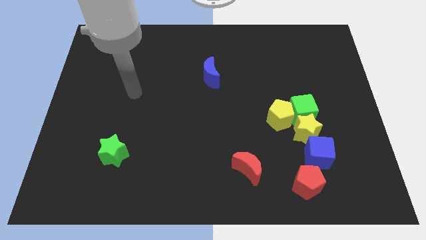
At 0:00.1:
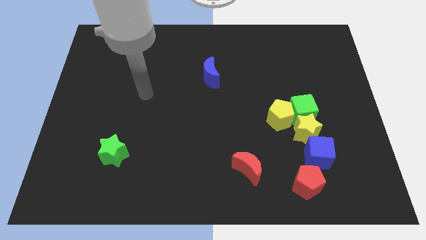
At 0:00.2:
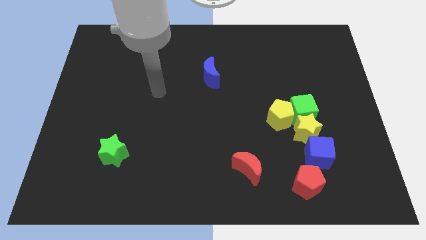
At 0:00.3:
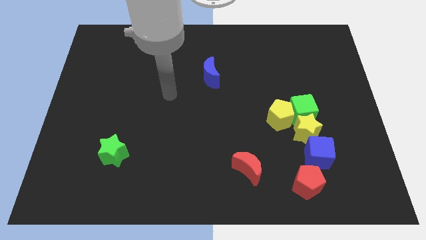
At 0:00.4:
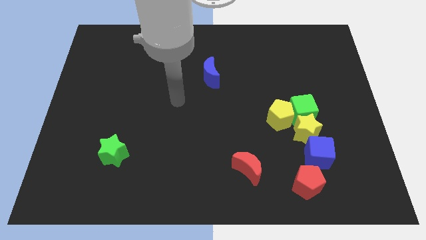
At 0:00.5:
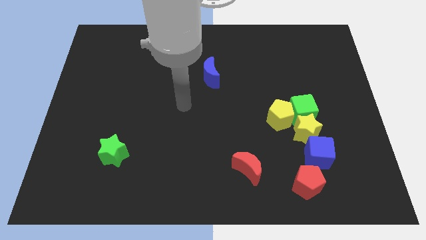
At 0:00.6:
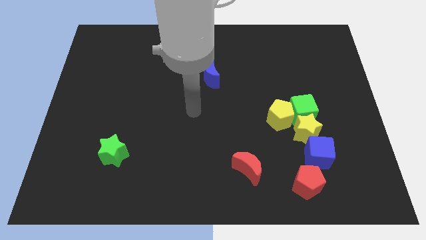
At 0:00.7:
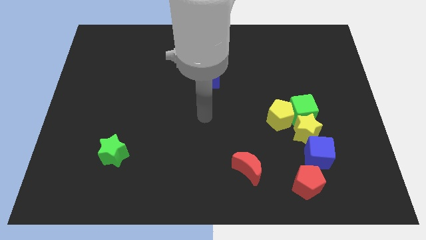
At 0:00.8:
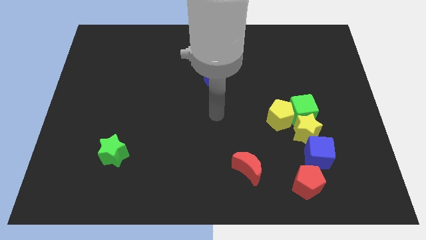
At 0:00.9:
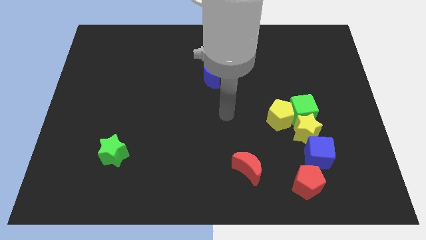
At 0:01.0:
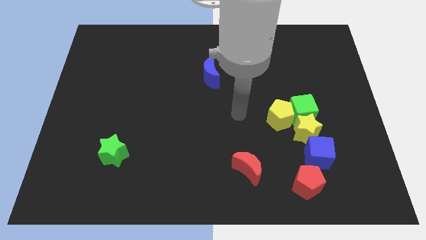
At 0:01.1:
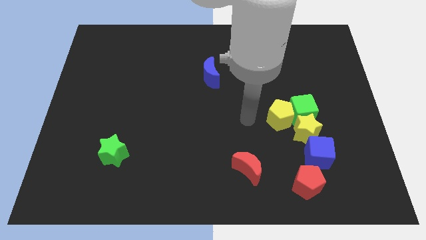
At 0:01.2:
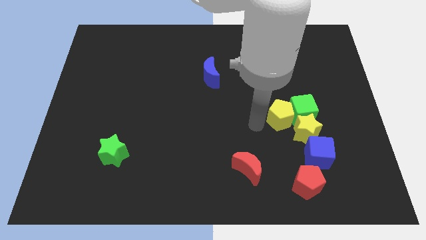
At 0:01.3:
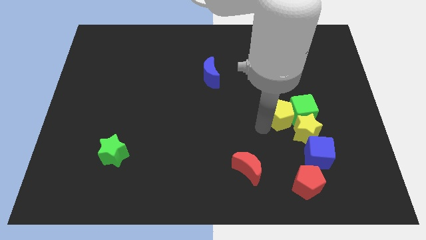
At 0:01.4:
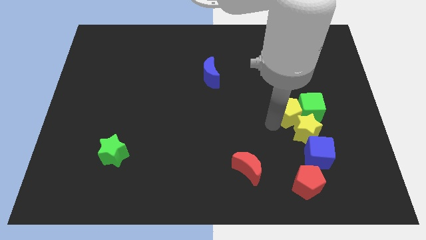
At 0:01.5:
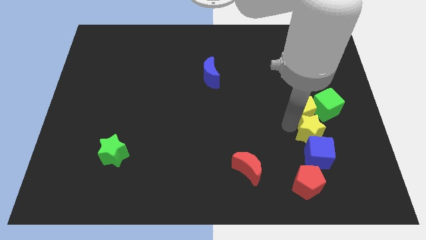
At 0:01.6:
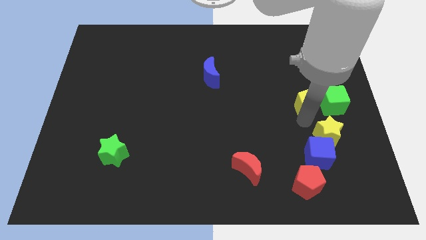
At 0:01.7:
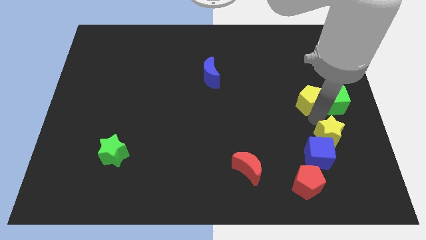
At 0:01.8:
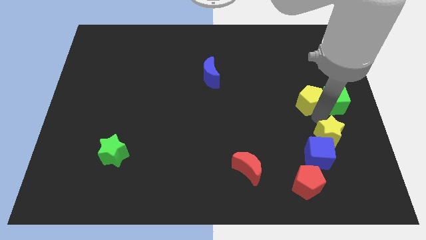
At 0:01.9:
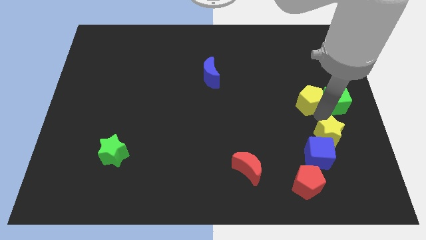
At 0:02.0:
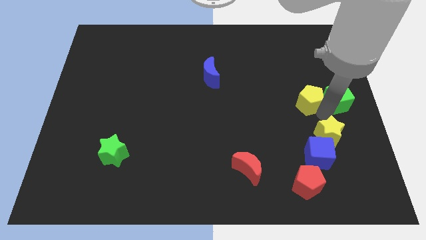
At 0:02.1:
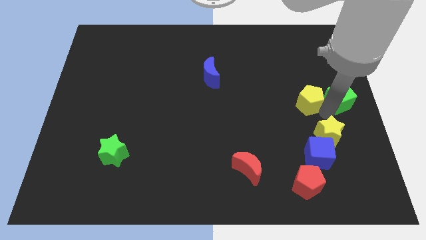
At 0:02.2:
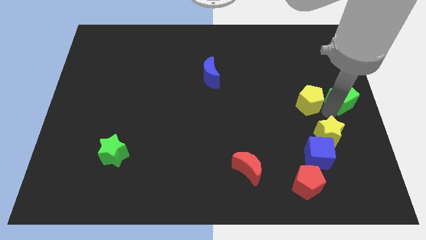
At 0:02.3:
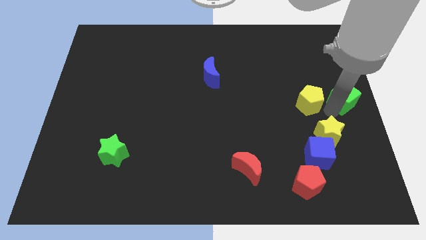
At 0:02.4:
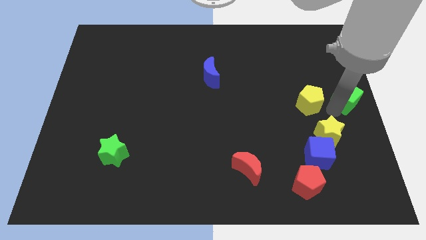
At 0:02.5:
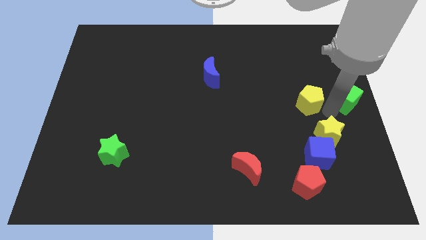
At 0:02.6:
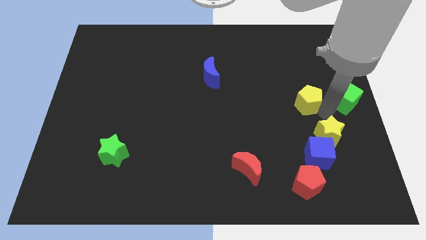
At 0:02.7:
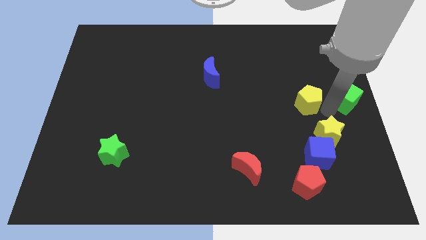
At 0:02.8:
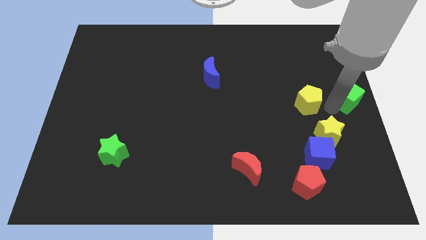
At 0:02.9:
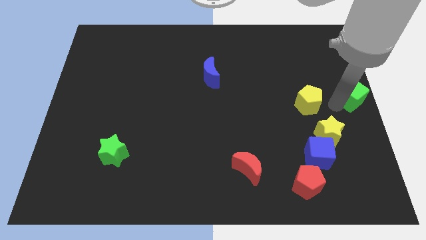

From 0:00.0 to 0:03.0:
pull the green cube apart from the yellow star and yellow pentagon

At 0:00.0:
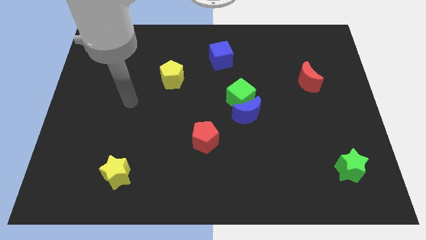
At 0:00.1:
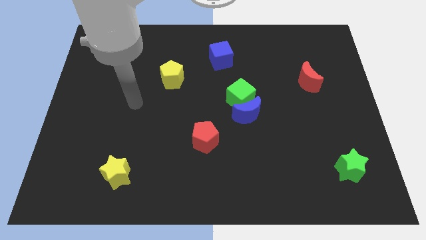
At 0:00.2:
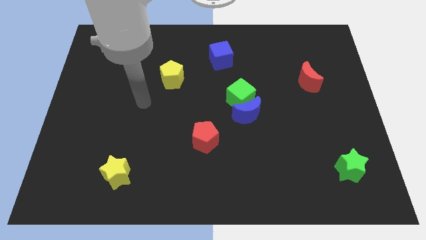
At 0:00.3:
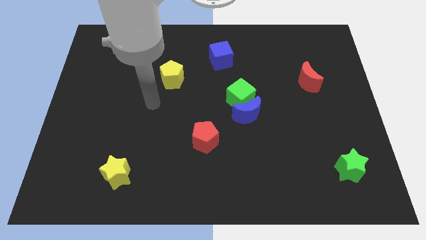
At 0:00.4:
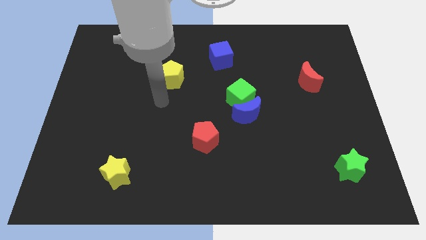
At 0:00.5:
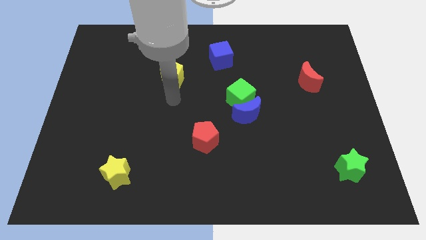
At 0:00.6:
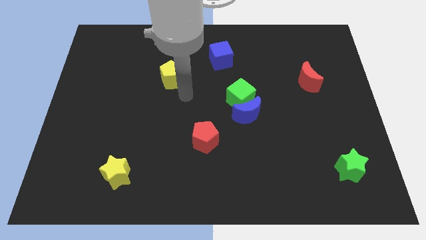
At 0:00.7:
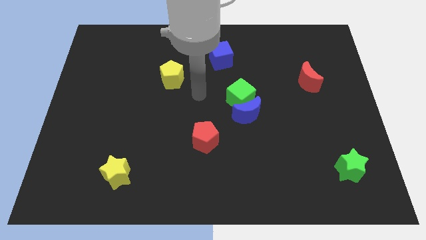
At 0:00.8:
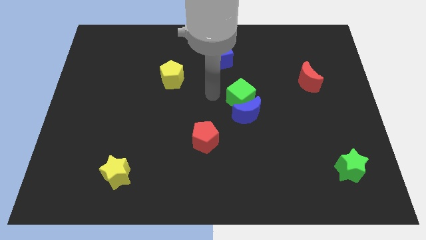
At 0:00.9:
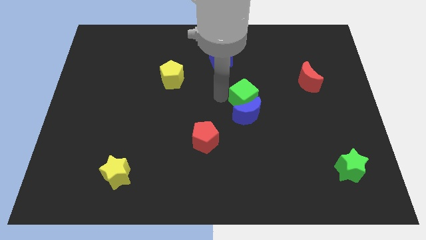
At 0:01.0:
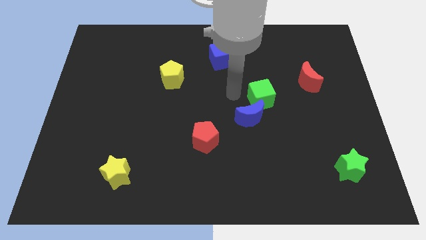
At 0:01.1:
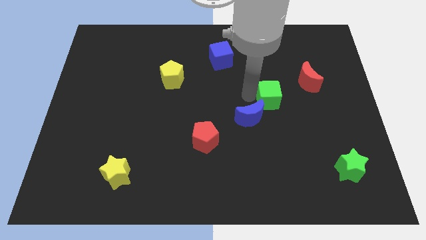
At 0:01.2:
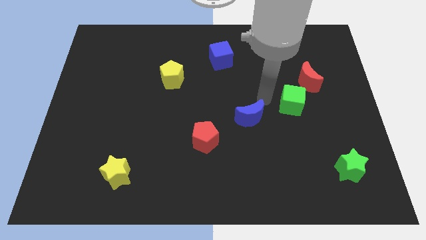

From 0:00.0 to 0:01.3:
pull the blue moon apart from the green cube

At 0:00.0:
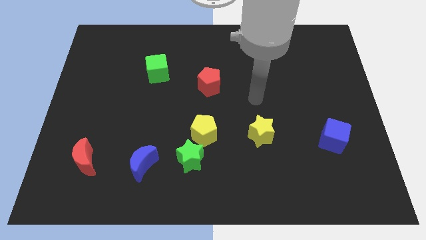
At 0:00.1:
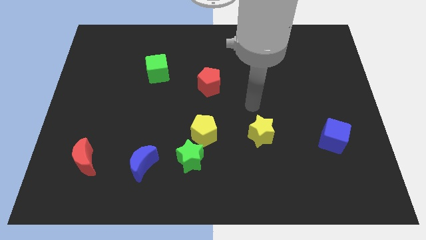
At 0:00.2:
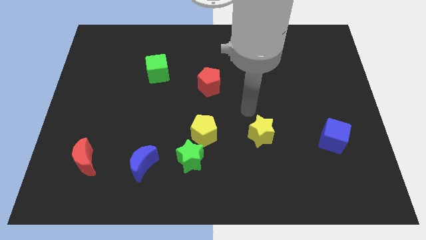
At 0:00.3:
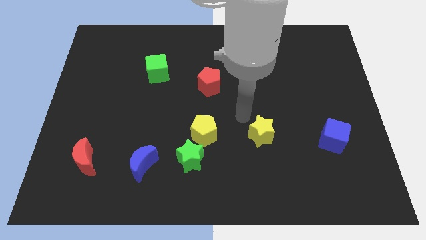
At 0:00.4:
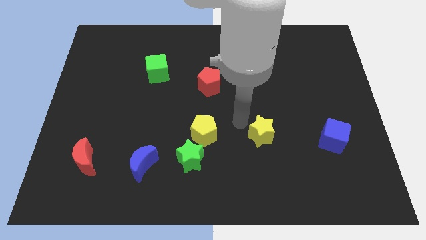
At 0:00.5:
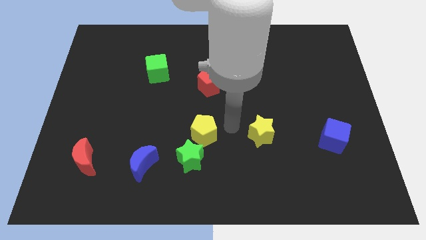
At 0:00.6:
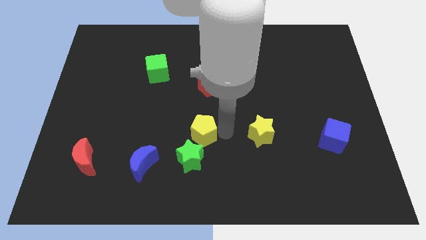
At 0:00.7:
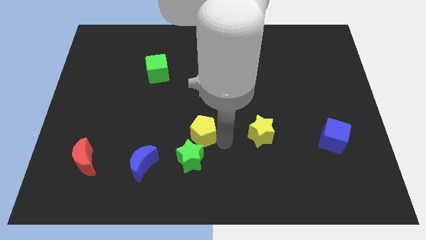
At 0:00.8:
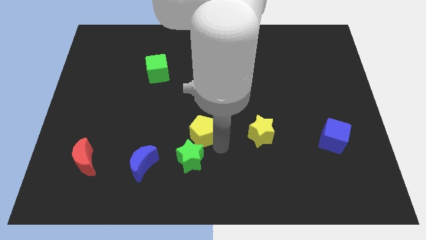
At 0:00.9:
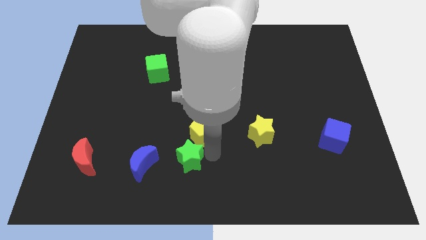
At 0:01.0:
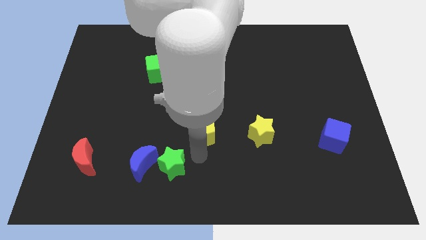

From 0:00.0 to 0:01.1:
move the yellow pentagon away from the green star

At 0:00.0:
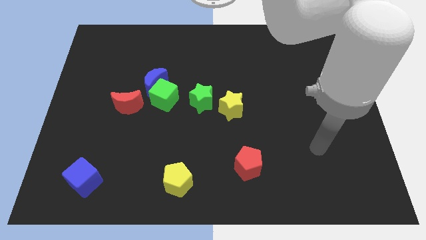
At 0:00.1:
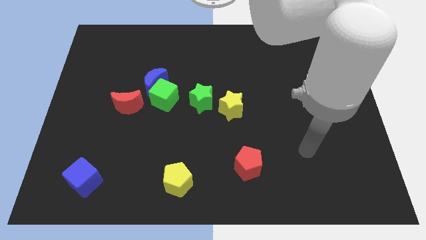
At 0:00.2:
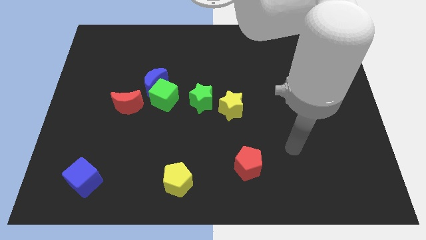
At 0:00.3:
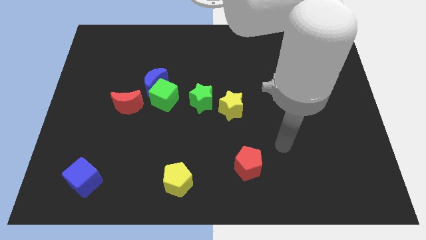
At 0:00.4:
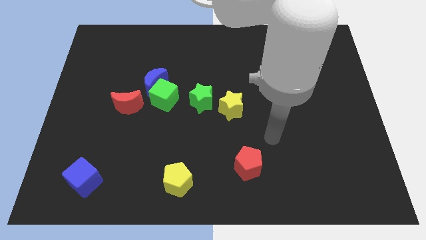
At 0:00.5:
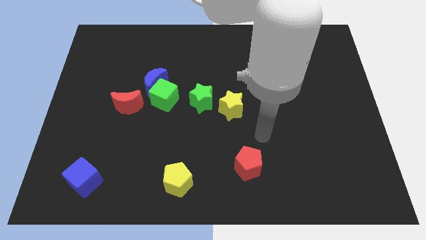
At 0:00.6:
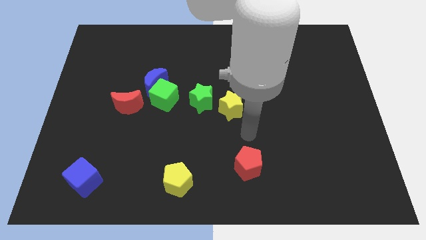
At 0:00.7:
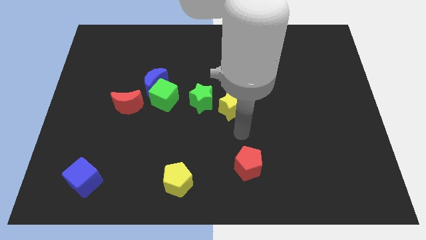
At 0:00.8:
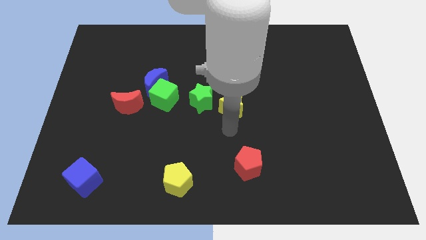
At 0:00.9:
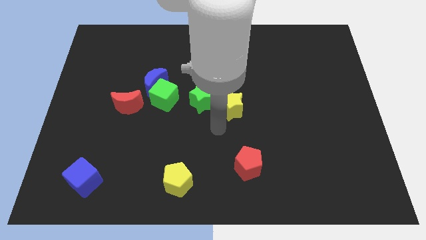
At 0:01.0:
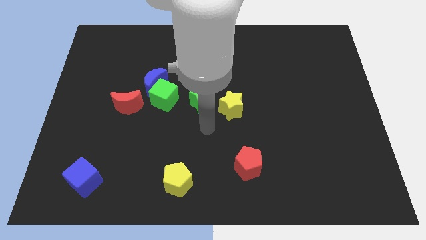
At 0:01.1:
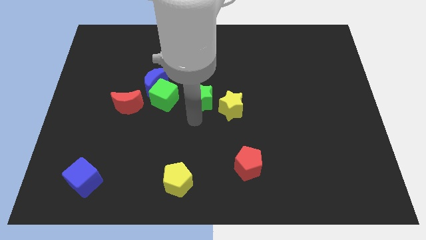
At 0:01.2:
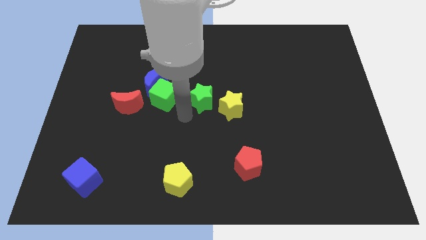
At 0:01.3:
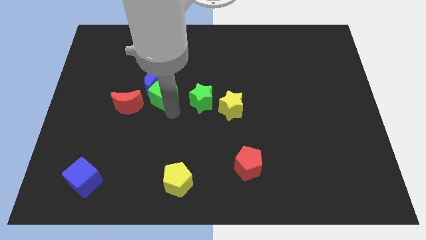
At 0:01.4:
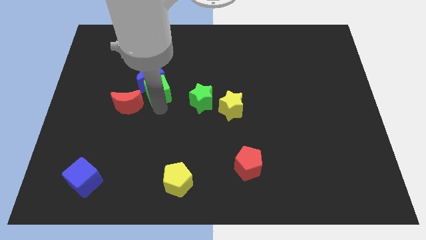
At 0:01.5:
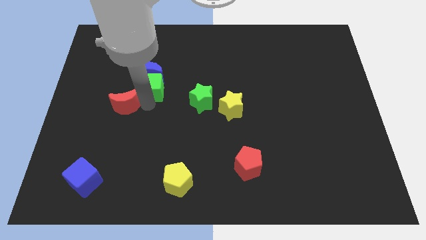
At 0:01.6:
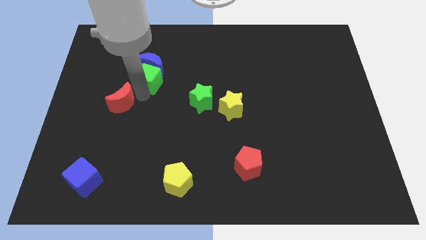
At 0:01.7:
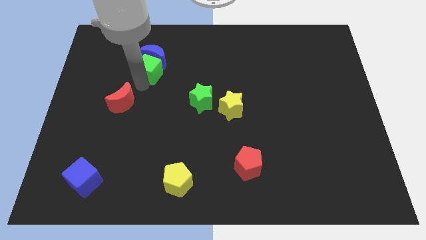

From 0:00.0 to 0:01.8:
pull the blue moon apart from the green cube and red moon

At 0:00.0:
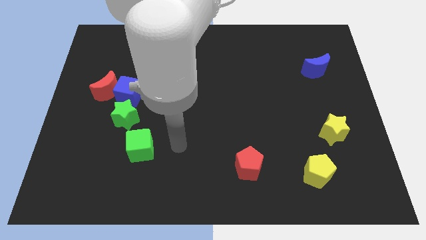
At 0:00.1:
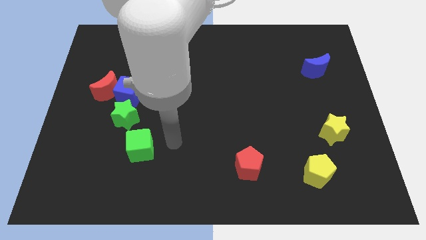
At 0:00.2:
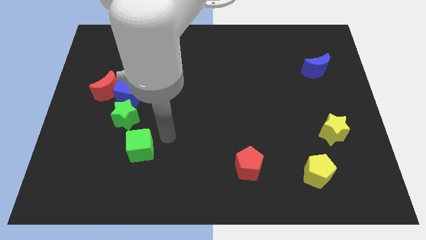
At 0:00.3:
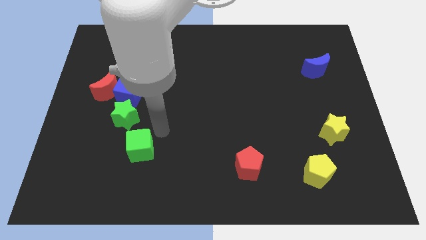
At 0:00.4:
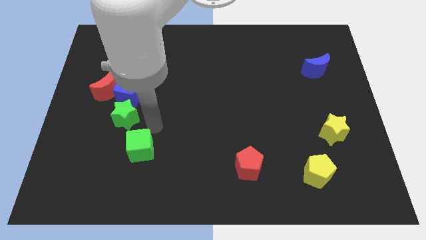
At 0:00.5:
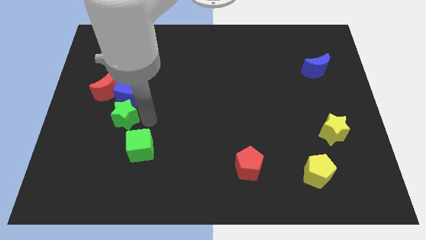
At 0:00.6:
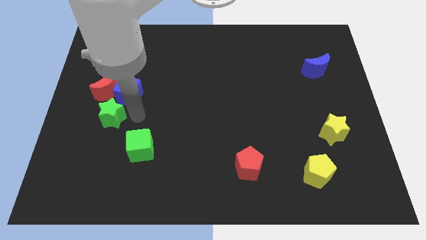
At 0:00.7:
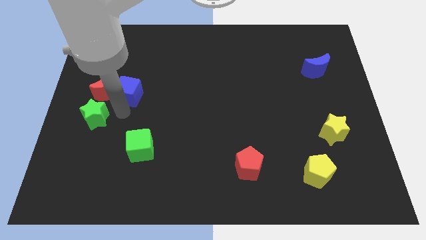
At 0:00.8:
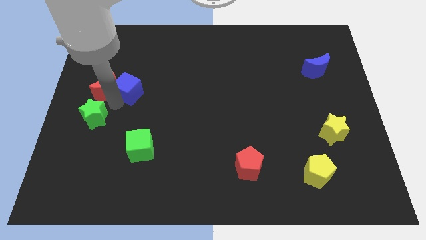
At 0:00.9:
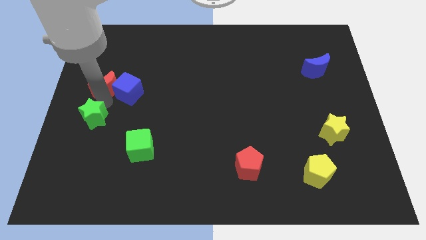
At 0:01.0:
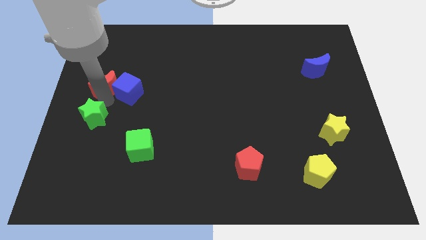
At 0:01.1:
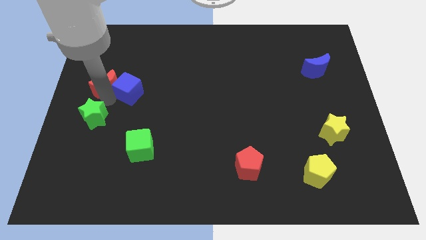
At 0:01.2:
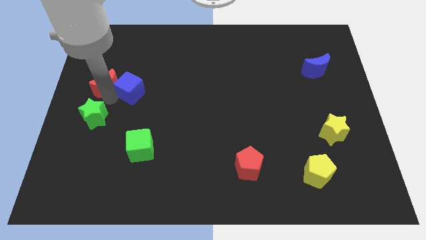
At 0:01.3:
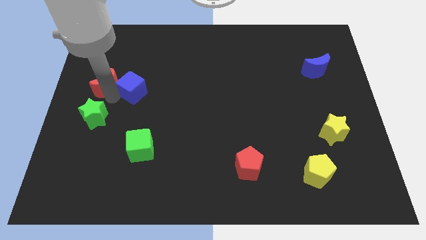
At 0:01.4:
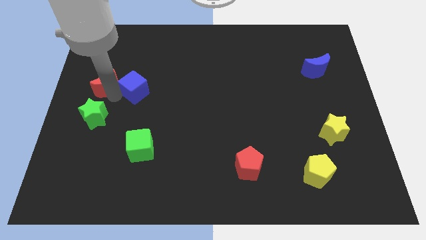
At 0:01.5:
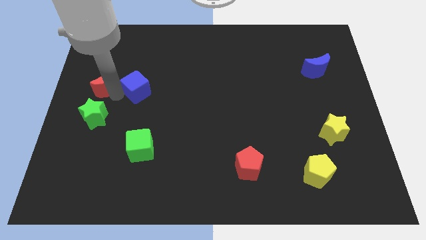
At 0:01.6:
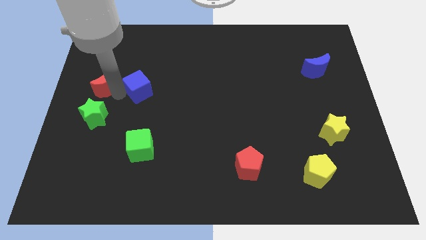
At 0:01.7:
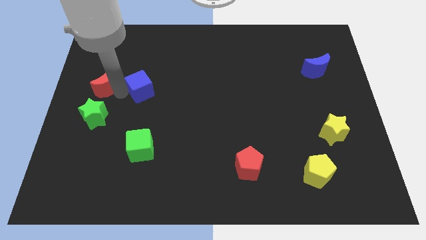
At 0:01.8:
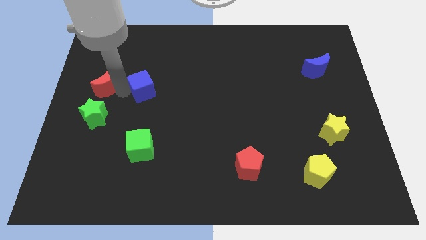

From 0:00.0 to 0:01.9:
separate the blue cube from the red moon and green star

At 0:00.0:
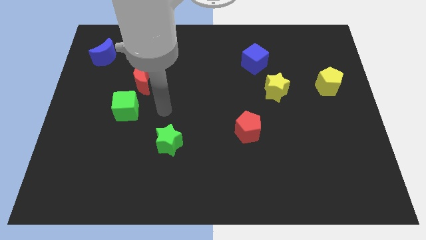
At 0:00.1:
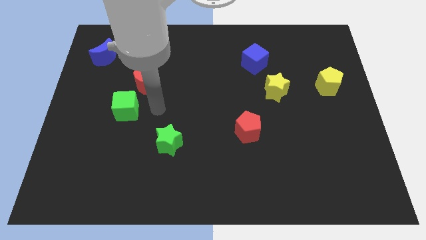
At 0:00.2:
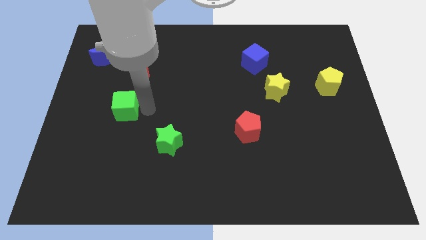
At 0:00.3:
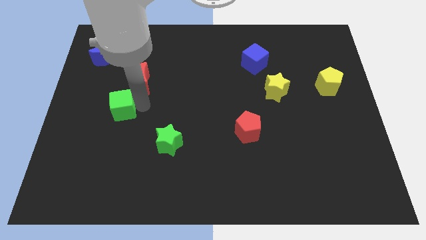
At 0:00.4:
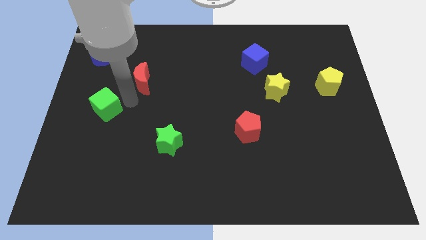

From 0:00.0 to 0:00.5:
separate the red moon from the green cube
